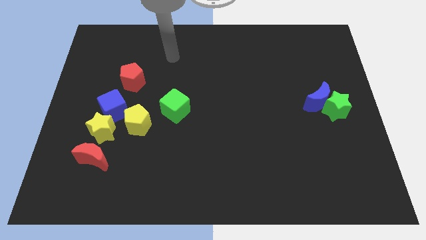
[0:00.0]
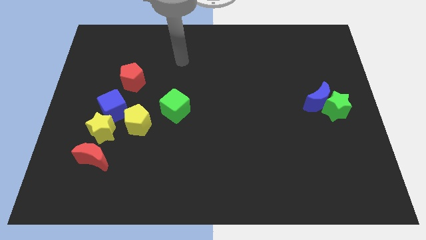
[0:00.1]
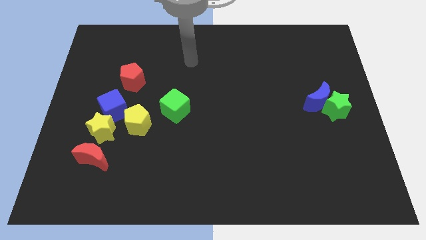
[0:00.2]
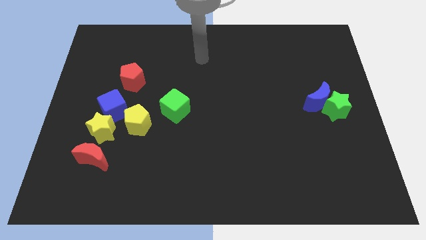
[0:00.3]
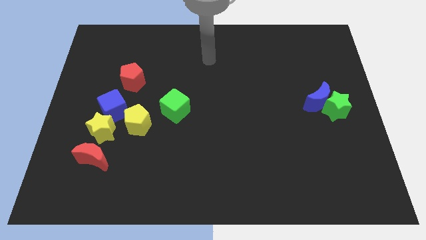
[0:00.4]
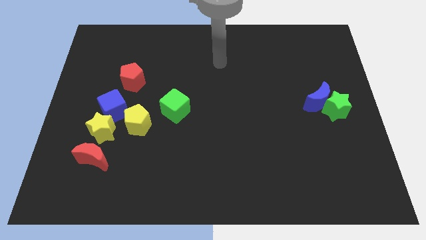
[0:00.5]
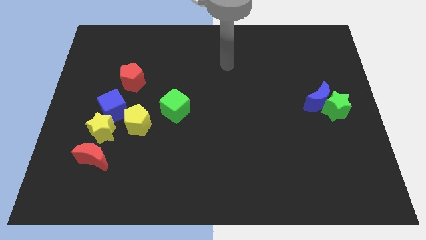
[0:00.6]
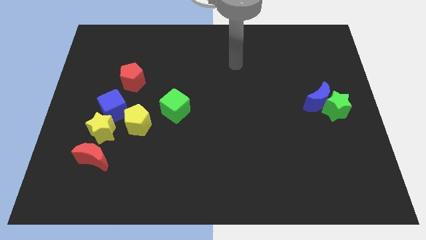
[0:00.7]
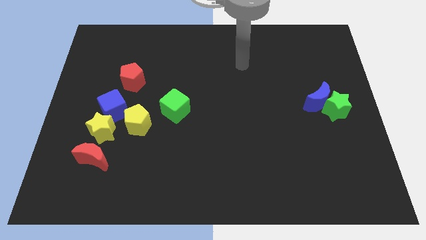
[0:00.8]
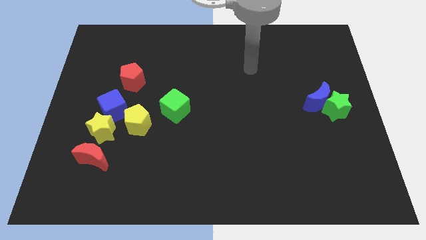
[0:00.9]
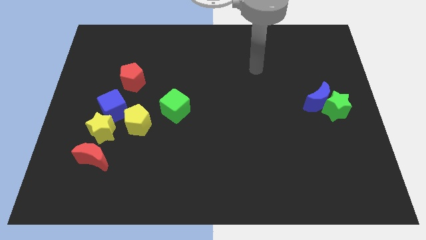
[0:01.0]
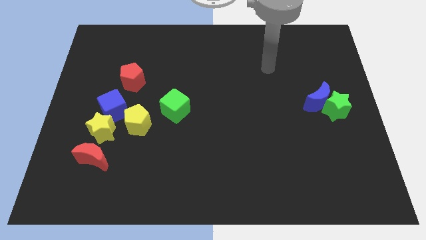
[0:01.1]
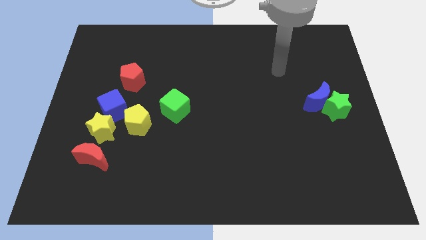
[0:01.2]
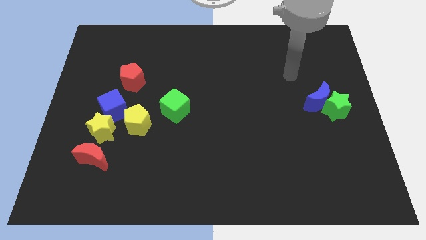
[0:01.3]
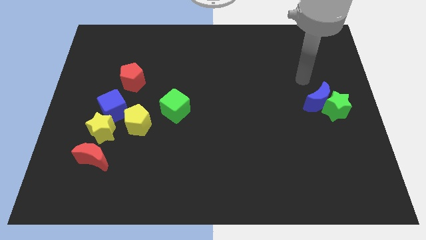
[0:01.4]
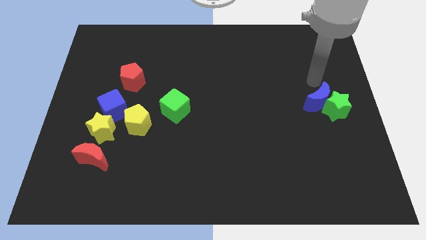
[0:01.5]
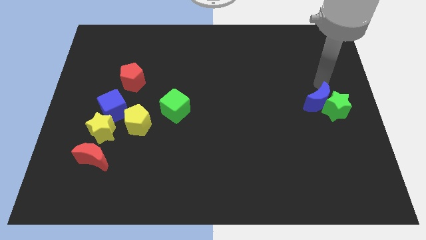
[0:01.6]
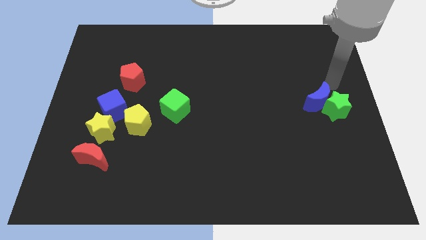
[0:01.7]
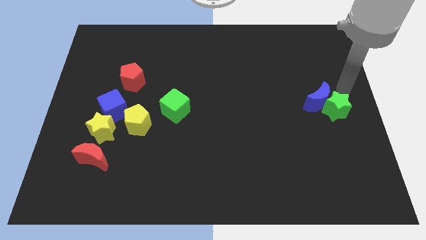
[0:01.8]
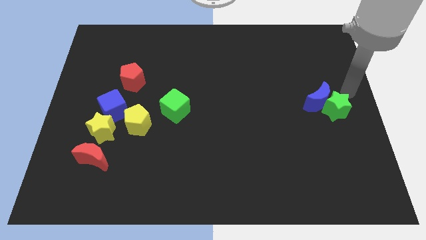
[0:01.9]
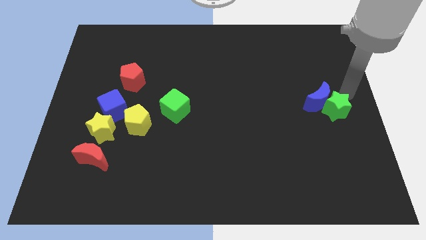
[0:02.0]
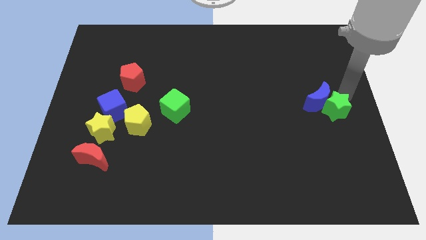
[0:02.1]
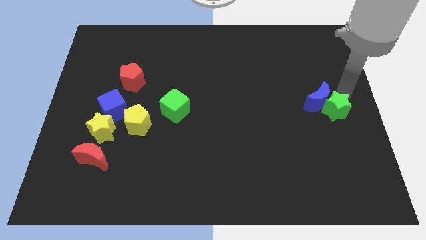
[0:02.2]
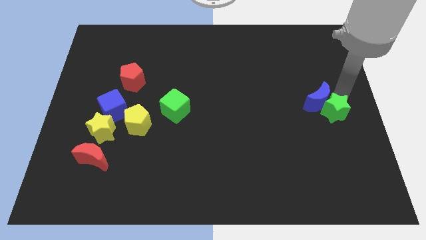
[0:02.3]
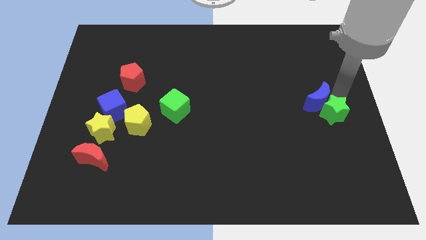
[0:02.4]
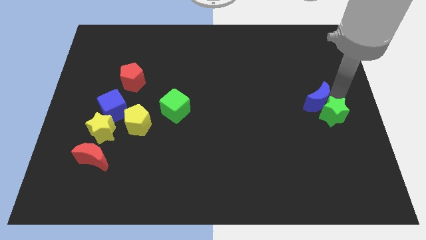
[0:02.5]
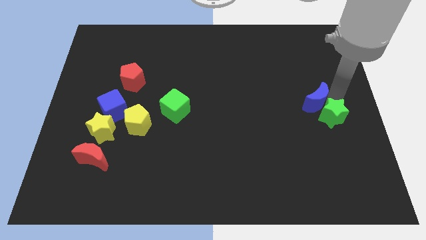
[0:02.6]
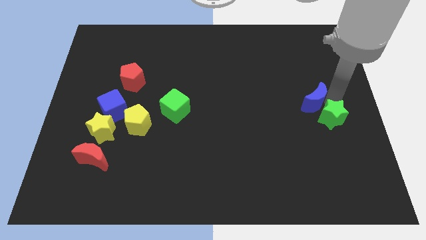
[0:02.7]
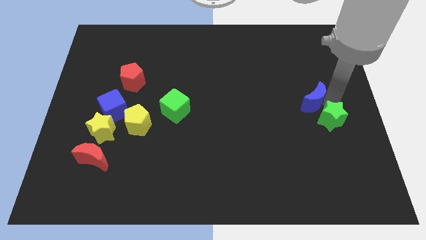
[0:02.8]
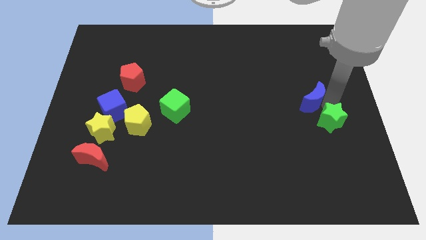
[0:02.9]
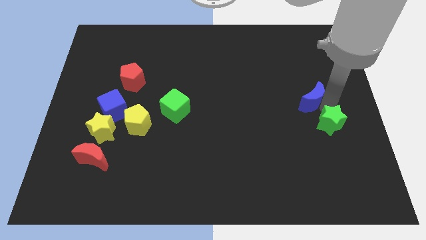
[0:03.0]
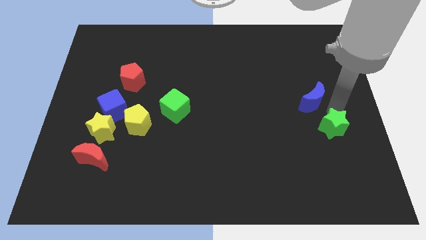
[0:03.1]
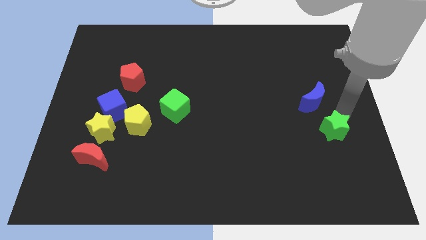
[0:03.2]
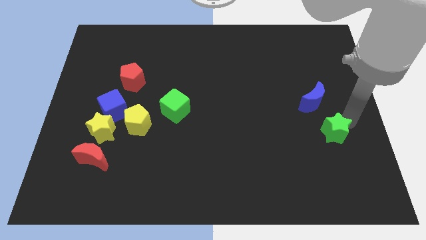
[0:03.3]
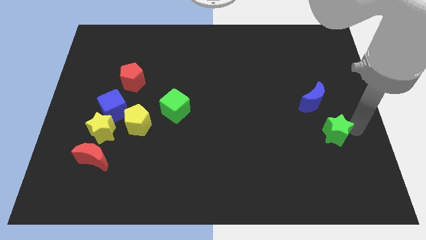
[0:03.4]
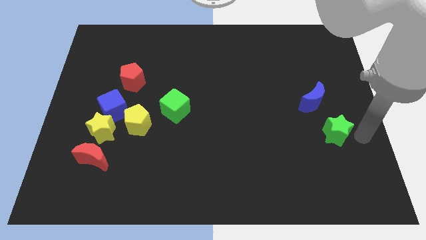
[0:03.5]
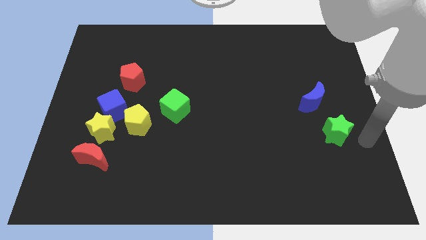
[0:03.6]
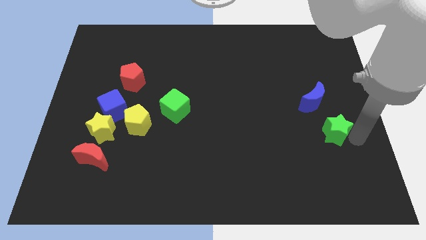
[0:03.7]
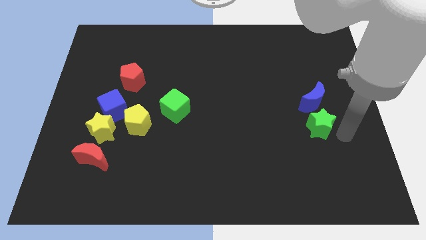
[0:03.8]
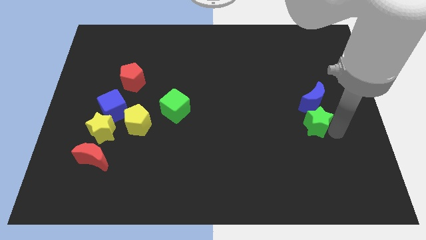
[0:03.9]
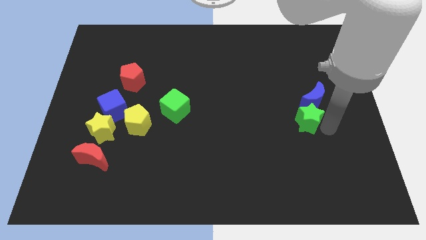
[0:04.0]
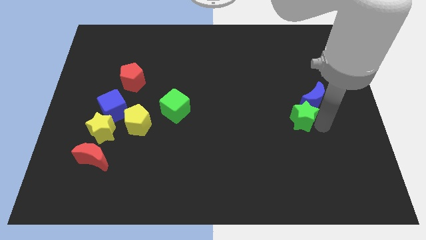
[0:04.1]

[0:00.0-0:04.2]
slightly slide the green star left

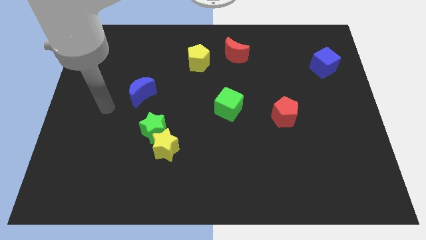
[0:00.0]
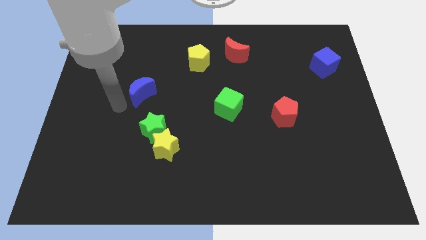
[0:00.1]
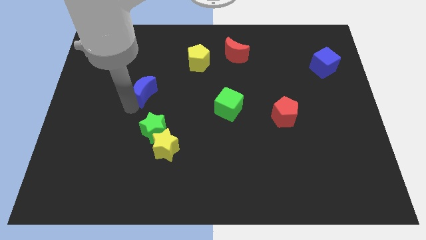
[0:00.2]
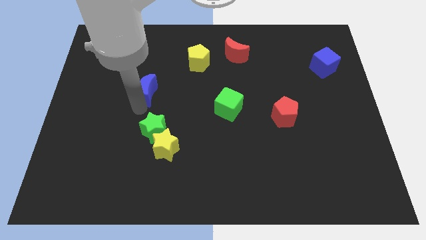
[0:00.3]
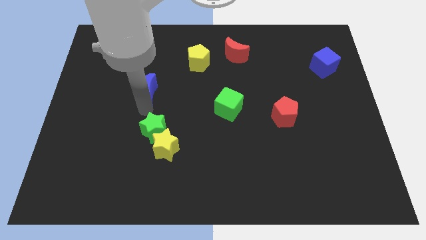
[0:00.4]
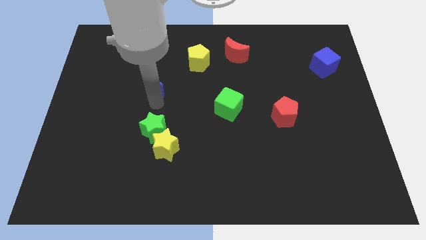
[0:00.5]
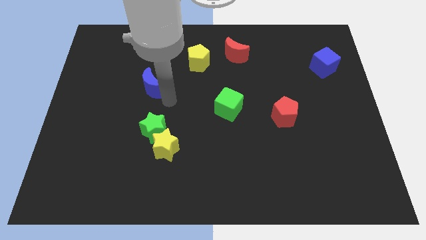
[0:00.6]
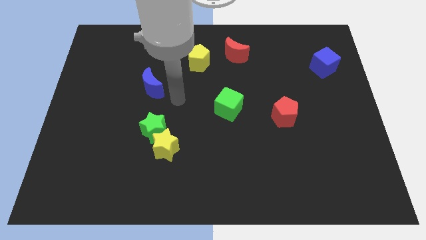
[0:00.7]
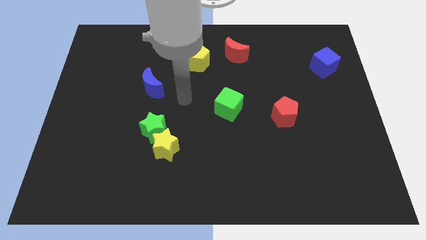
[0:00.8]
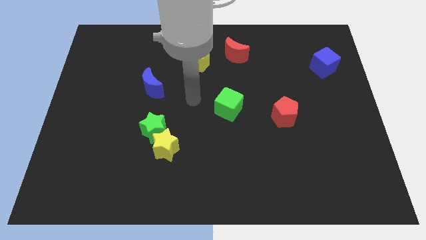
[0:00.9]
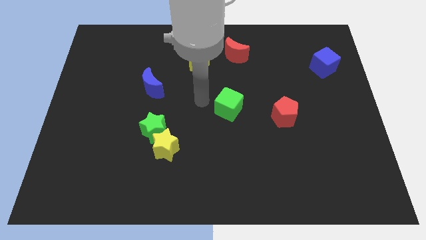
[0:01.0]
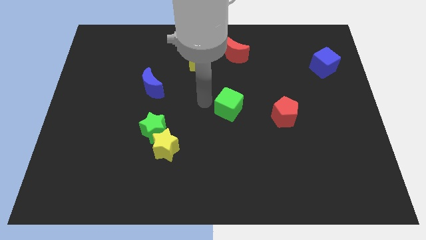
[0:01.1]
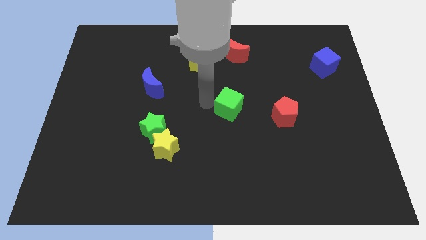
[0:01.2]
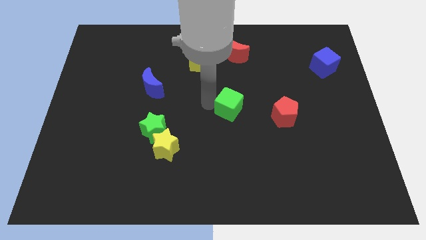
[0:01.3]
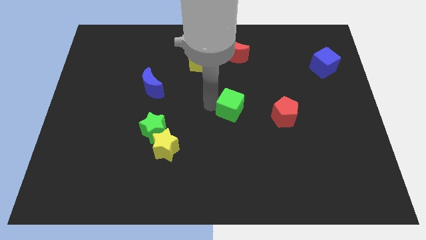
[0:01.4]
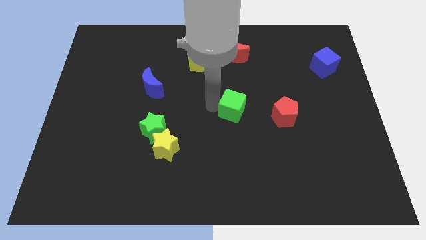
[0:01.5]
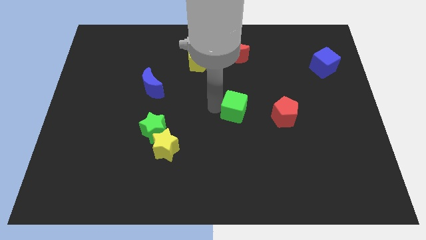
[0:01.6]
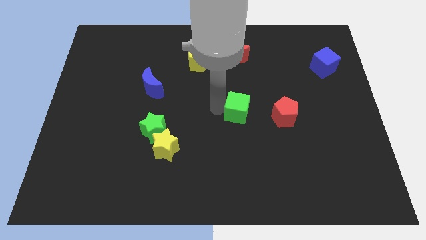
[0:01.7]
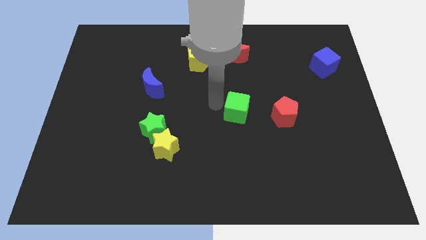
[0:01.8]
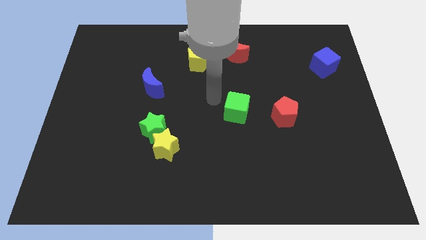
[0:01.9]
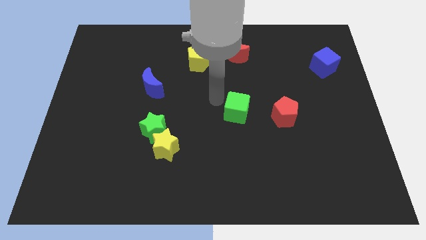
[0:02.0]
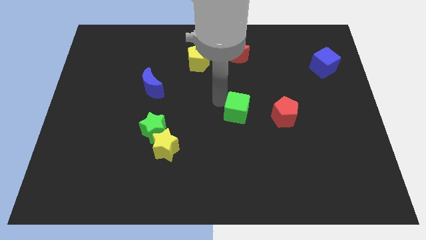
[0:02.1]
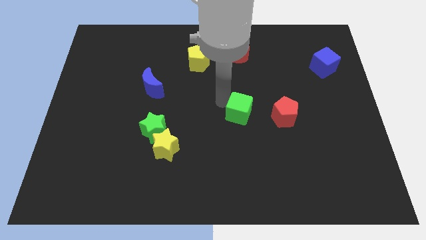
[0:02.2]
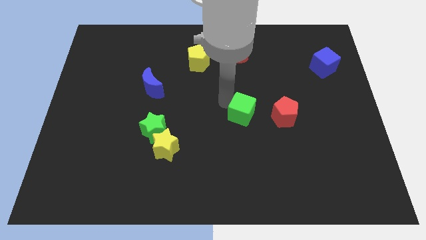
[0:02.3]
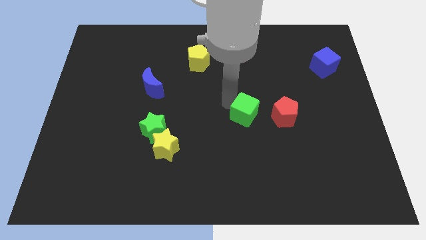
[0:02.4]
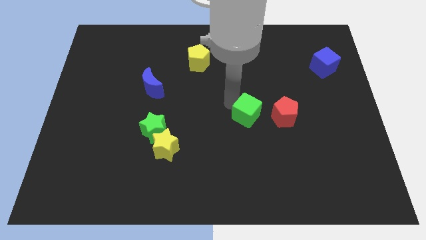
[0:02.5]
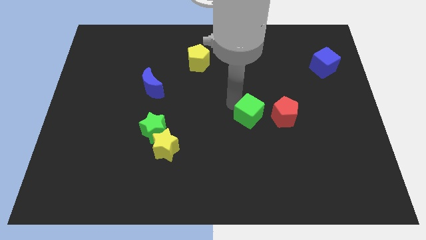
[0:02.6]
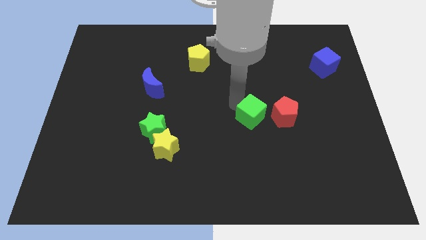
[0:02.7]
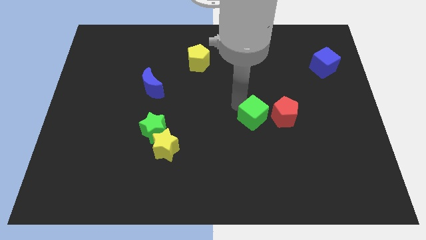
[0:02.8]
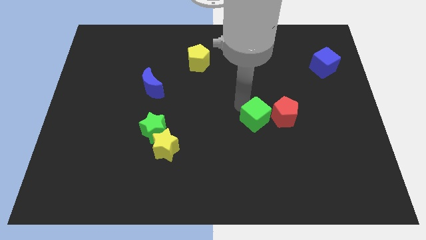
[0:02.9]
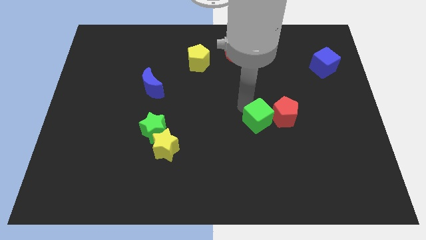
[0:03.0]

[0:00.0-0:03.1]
slightly move the green cube downwards and then to the right

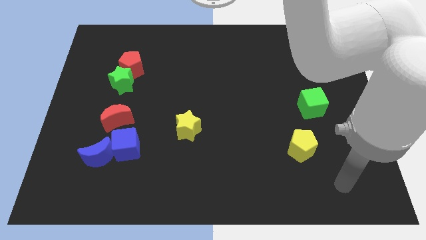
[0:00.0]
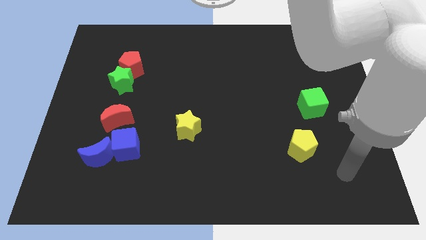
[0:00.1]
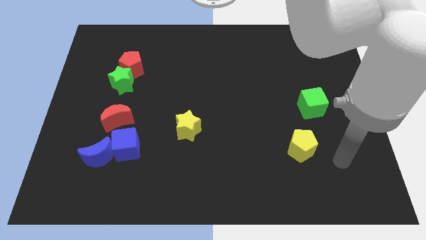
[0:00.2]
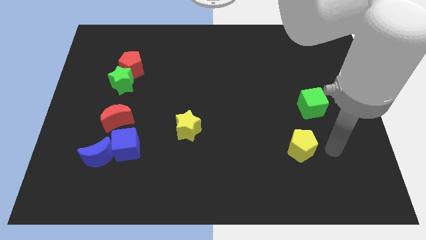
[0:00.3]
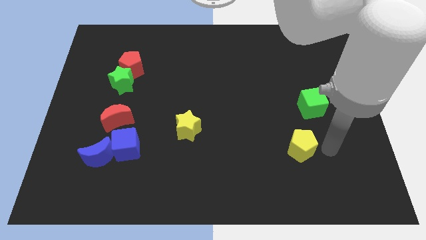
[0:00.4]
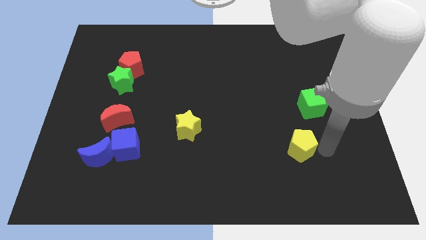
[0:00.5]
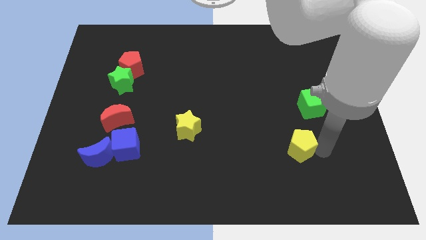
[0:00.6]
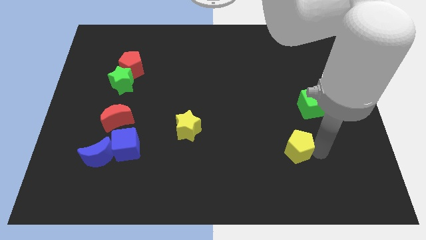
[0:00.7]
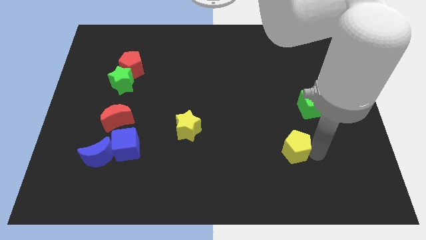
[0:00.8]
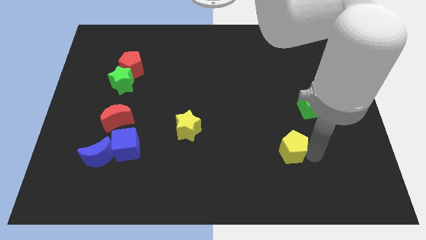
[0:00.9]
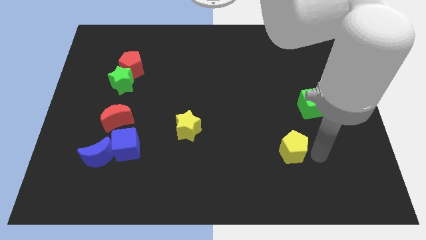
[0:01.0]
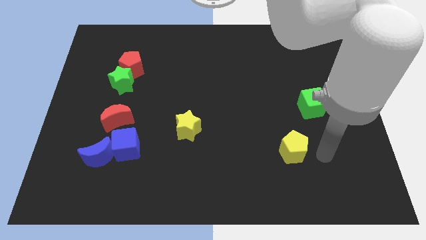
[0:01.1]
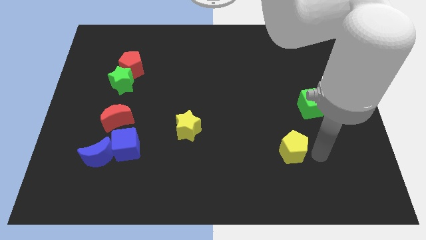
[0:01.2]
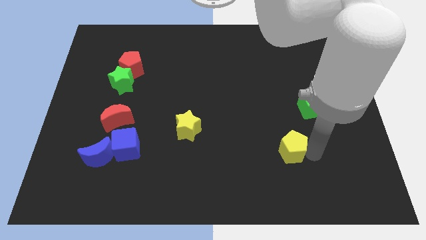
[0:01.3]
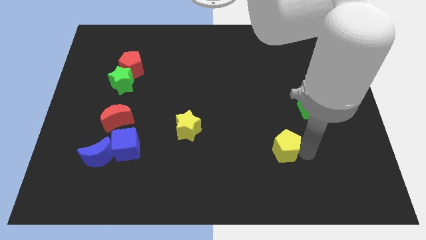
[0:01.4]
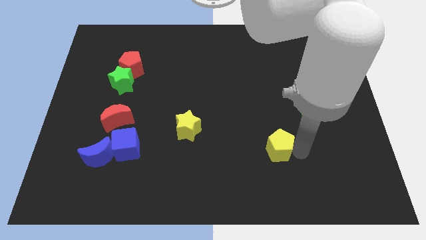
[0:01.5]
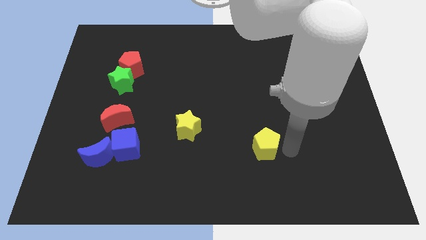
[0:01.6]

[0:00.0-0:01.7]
slightly slide the yellow pentagon to the left
